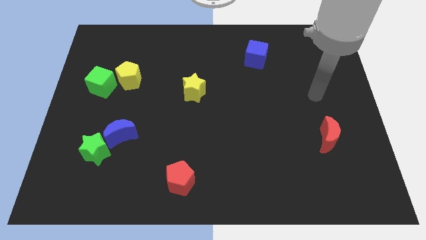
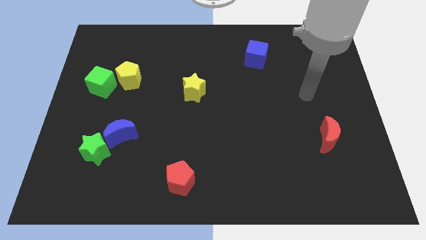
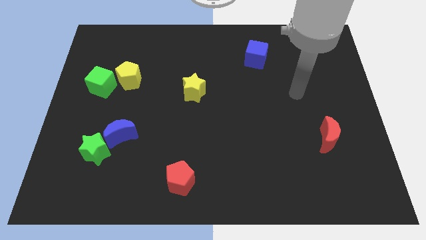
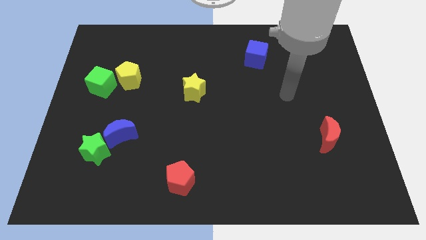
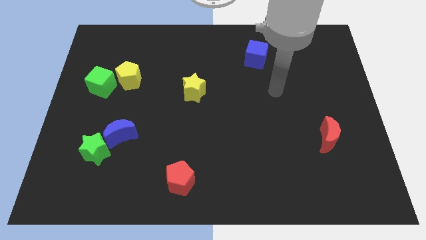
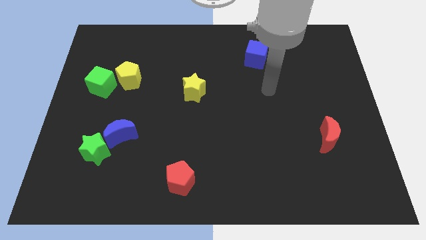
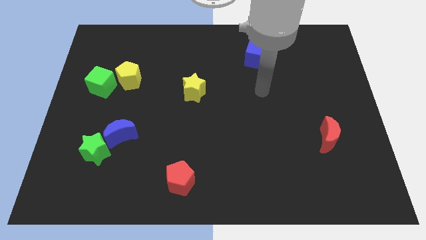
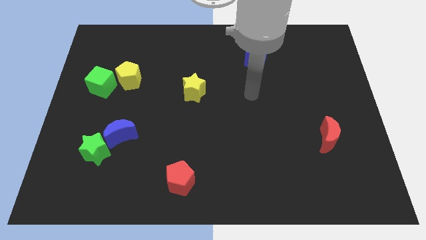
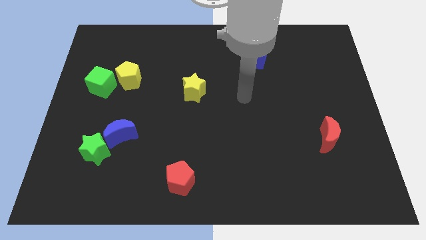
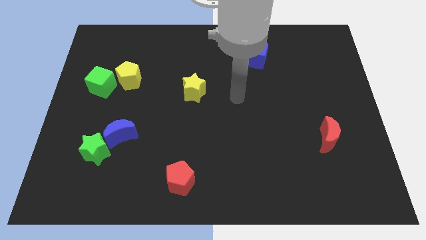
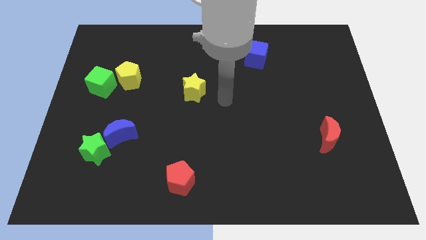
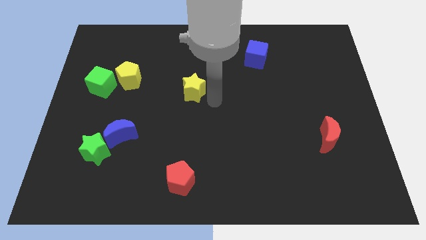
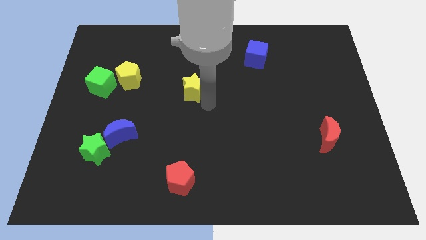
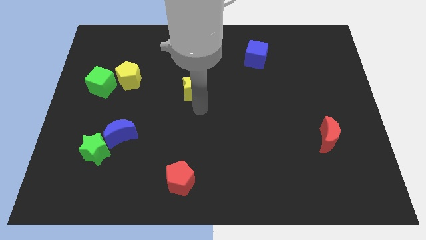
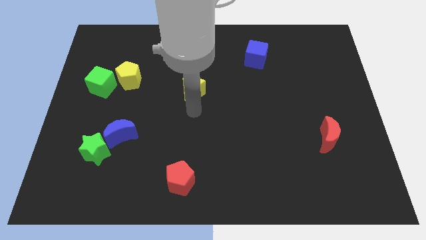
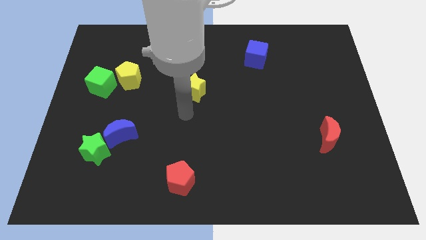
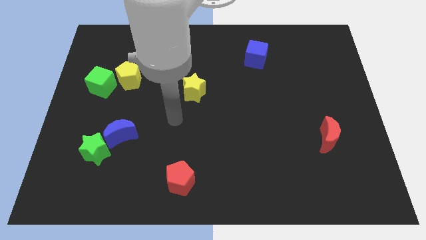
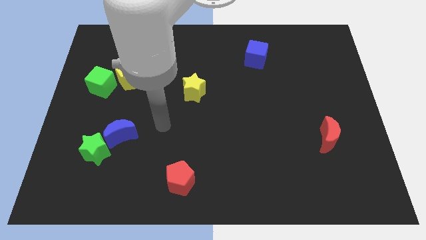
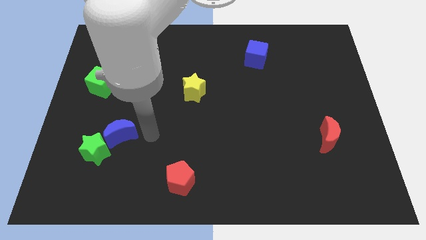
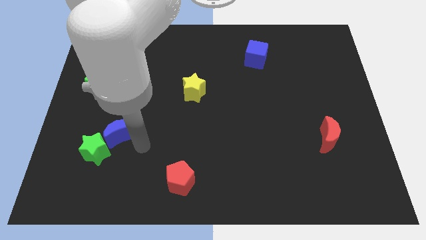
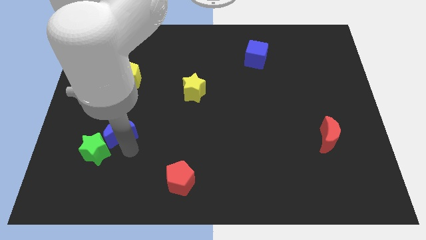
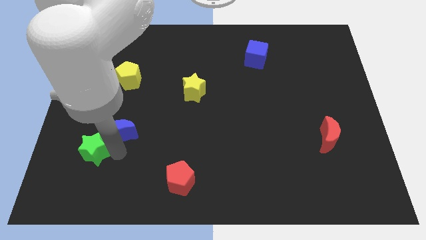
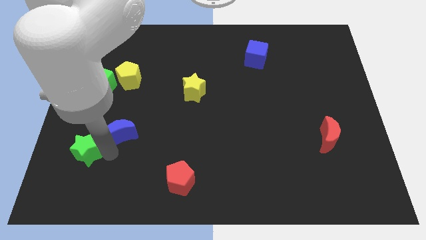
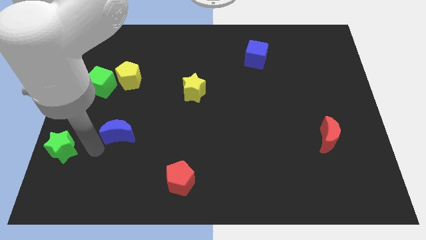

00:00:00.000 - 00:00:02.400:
move the blue moon away from the green star

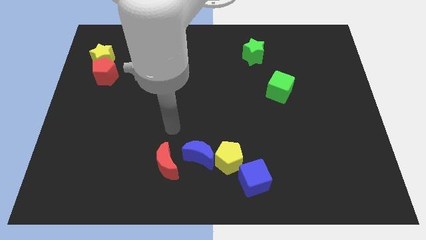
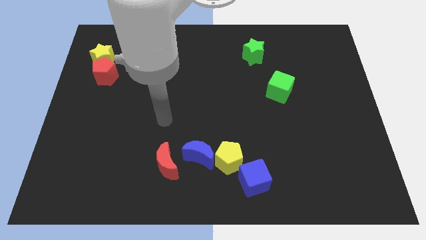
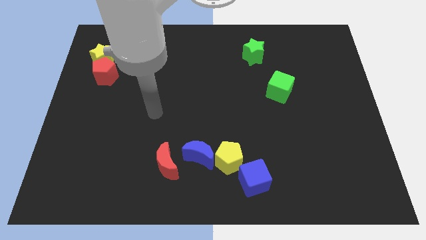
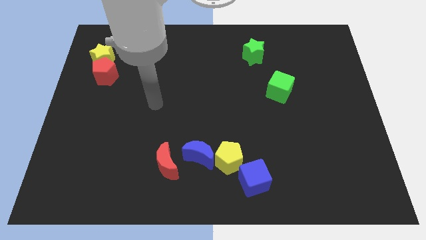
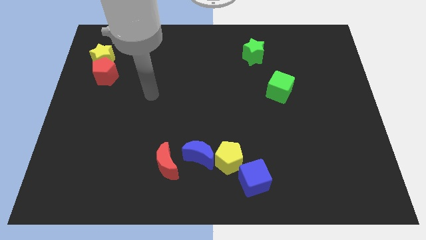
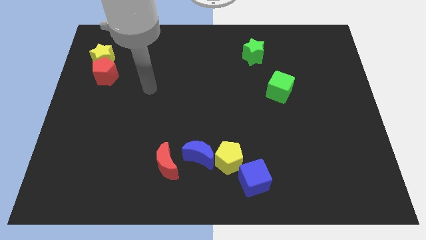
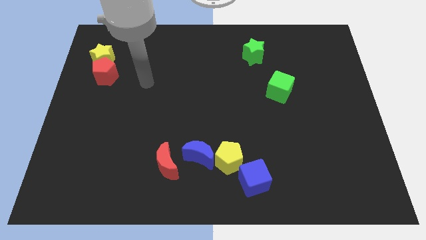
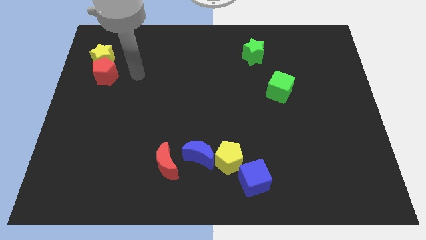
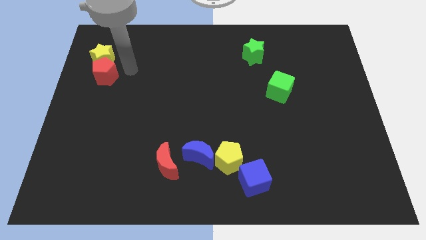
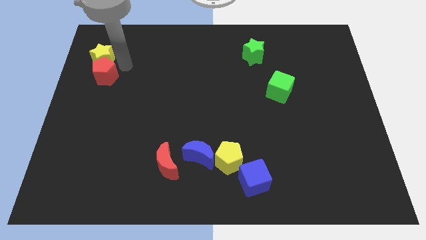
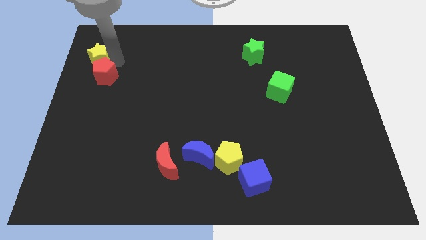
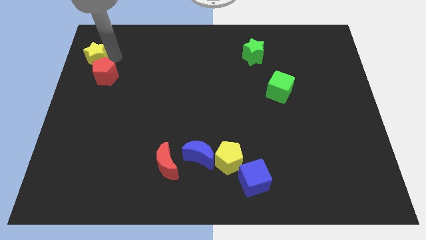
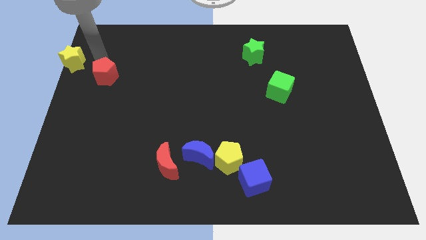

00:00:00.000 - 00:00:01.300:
move the red pentagon away from the yellow star

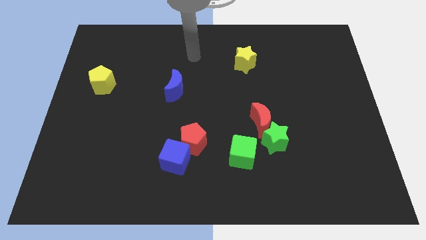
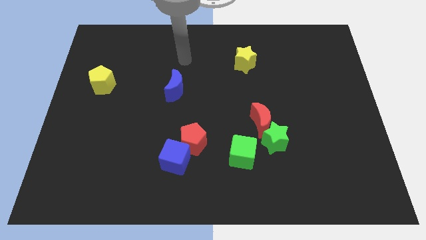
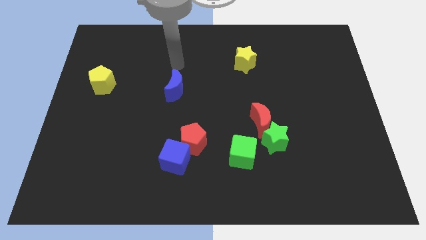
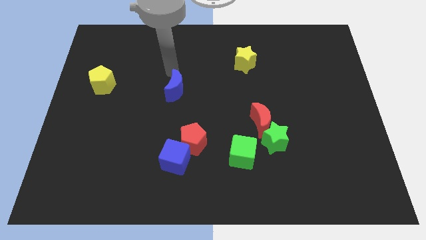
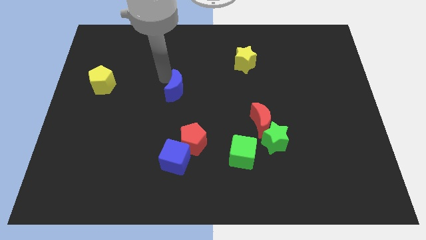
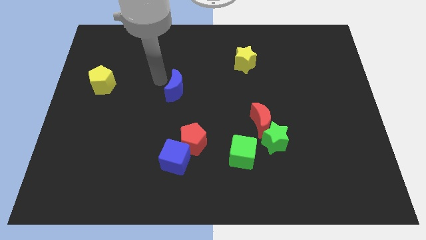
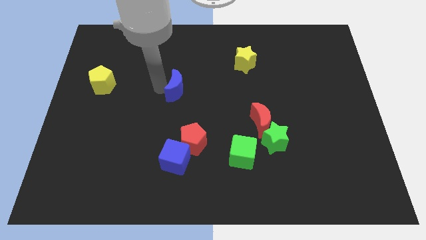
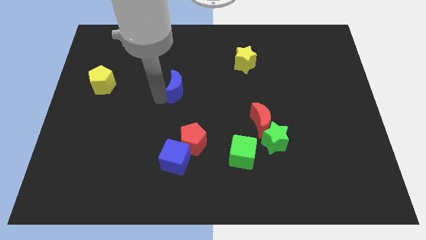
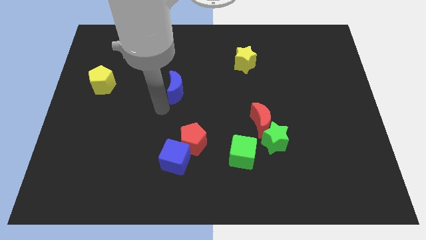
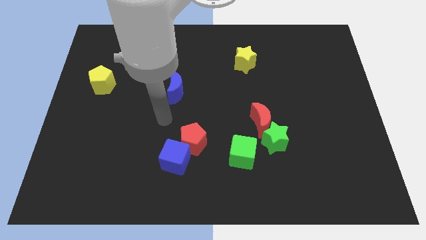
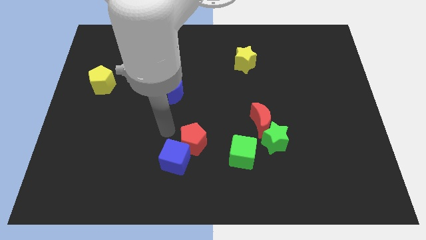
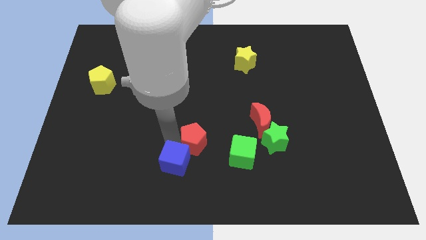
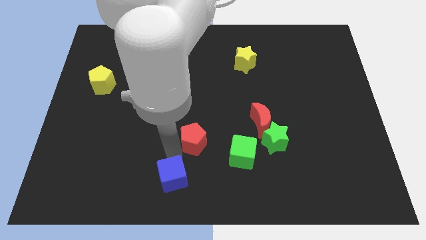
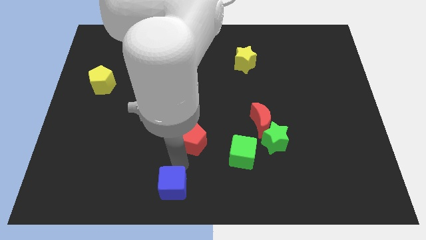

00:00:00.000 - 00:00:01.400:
separate the red pentagon from the blue cube

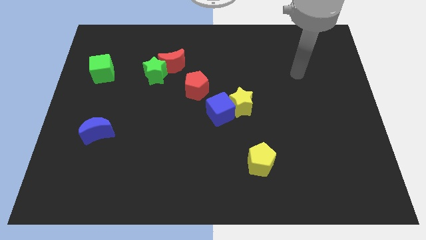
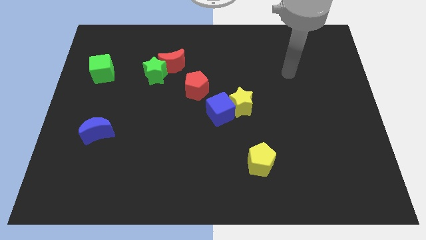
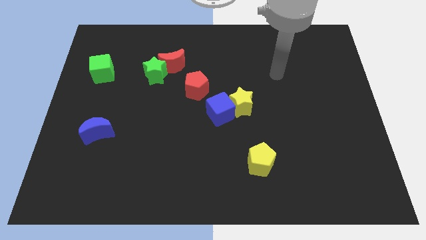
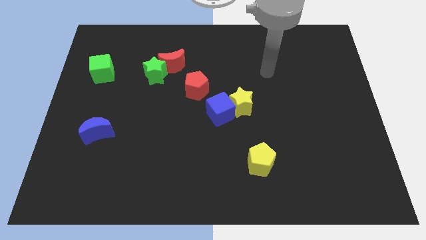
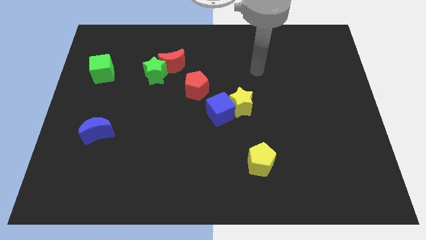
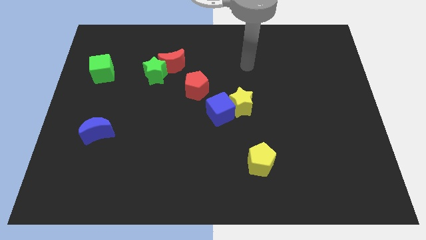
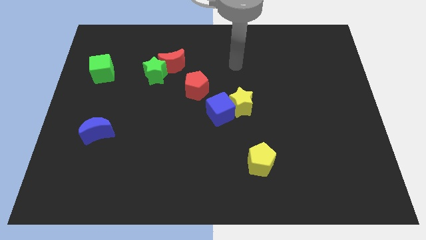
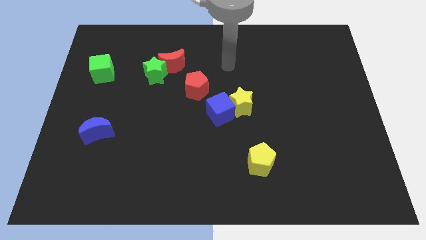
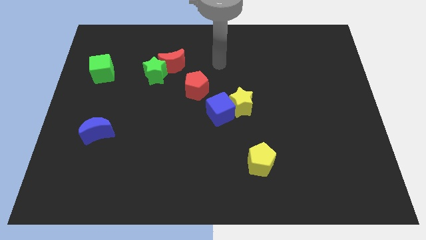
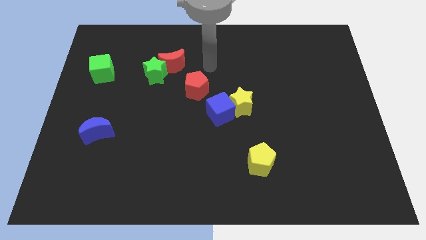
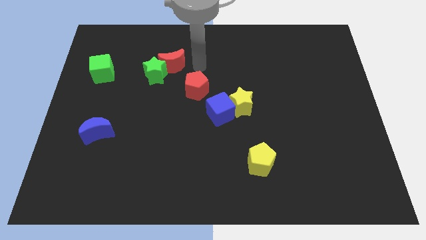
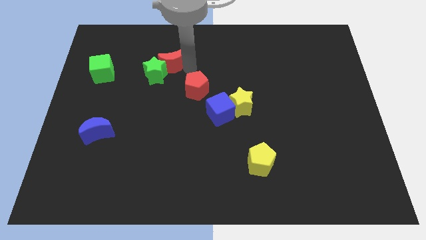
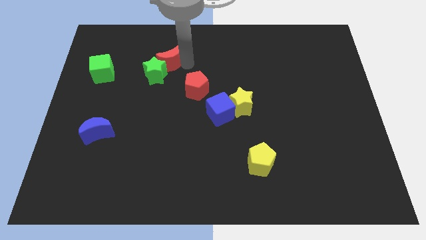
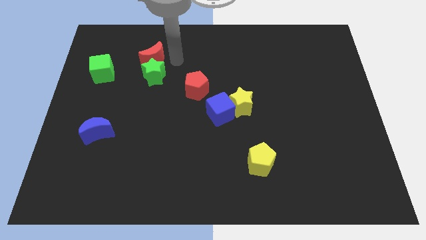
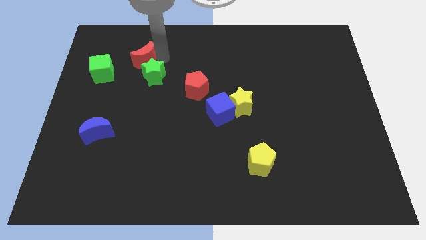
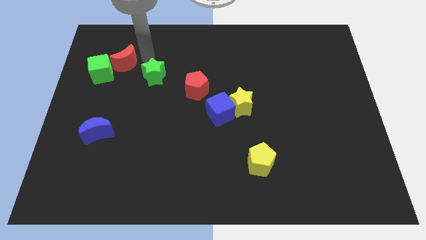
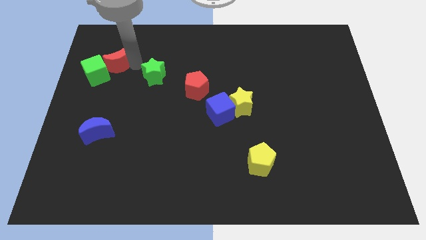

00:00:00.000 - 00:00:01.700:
pull the green star apart from the red moon

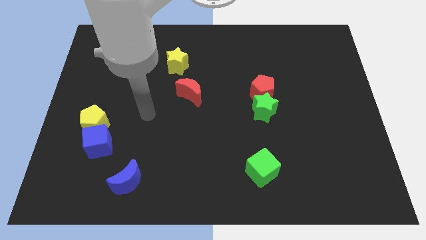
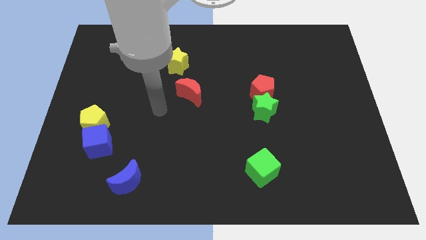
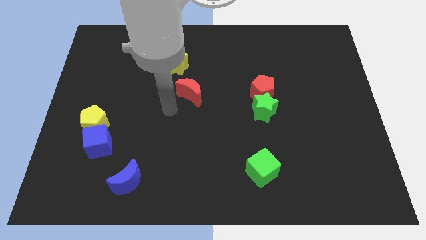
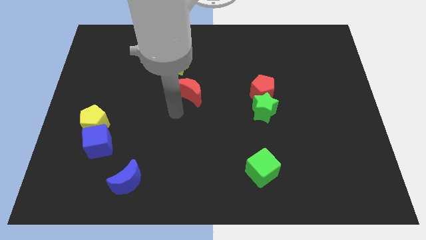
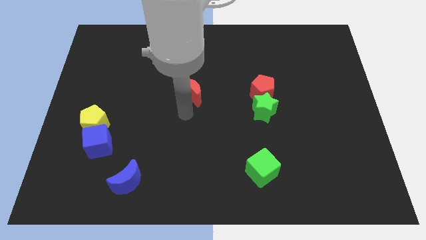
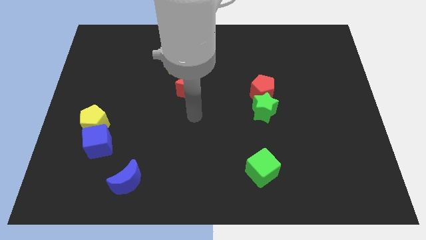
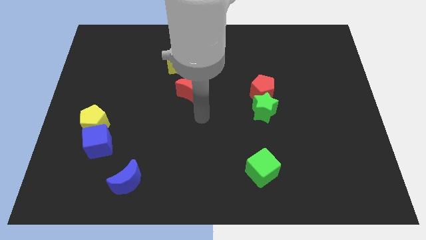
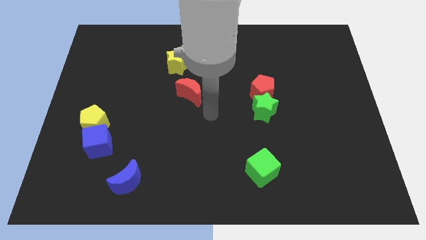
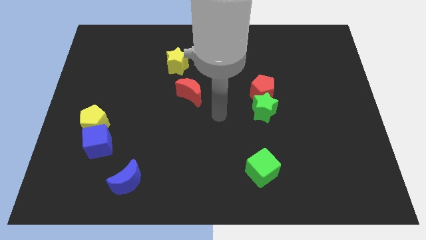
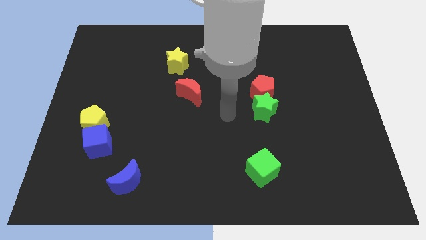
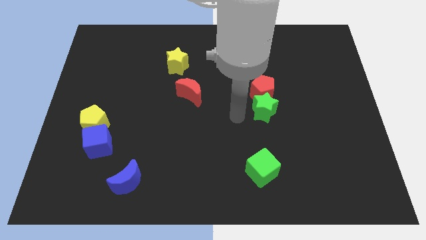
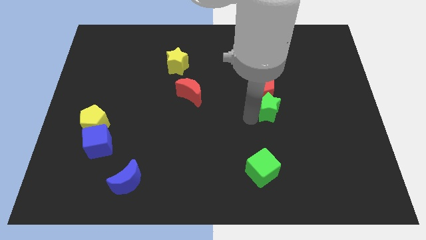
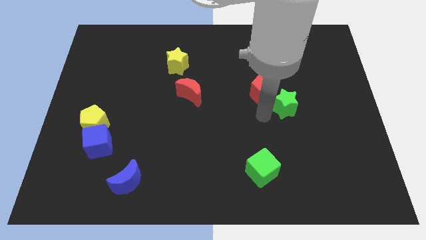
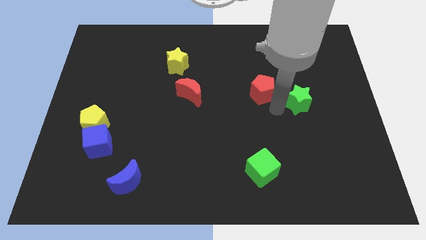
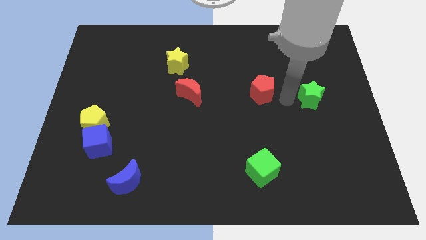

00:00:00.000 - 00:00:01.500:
move the red pentagon away from the green star

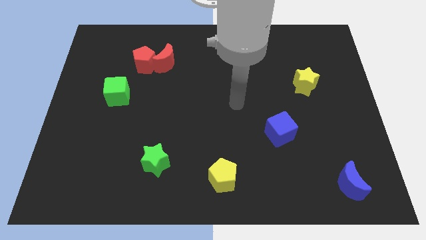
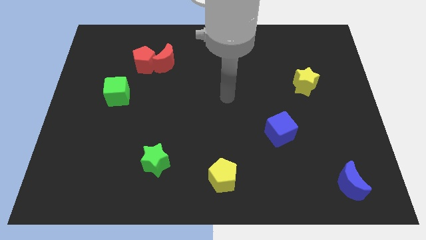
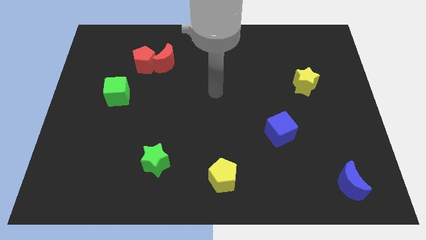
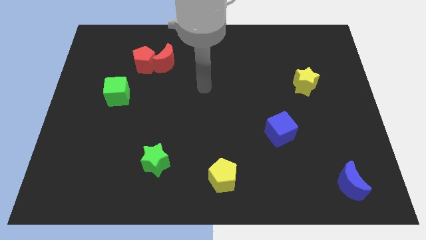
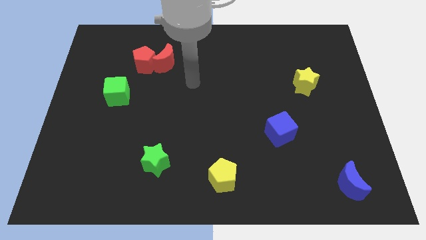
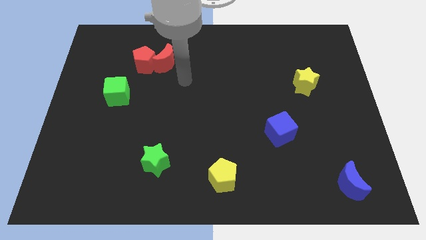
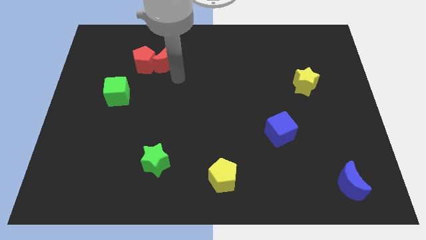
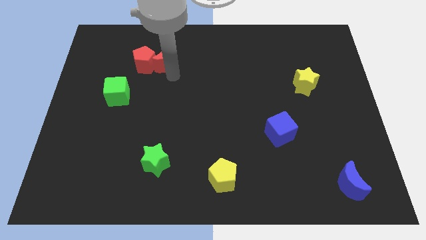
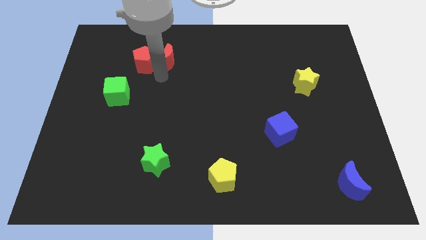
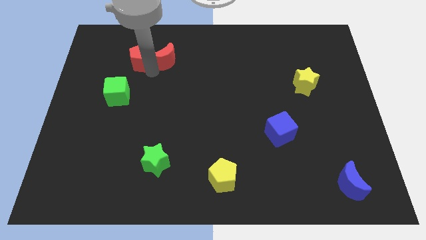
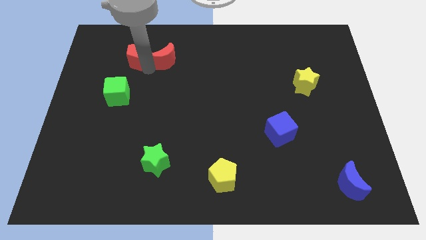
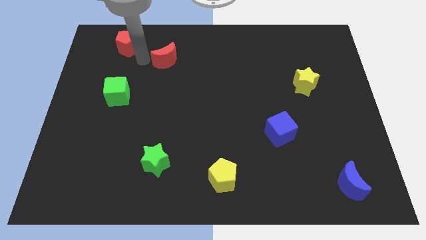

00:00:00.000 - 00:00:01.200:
pull the red moon apart from the red pentagon
